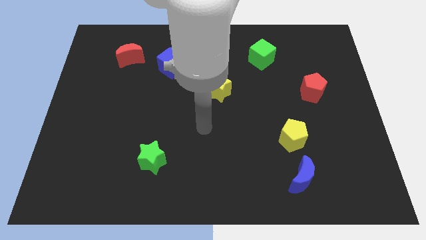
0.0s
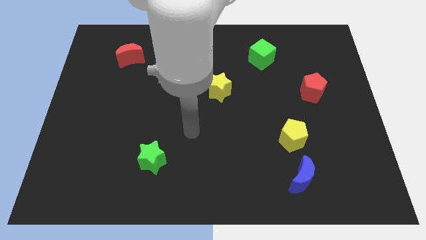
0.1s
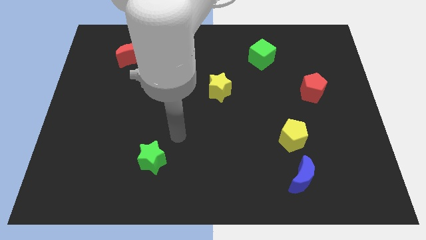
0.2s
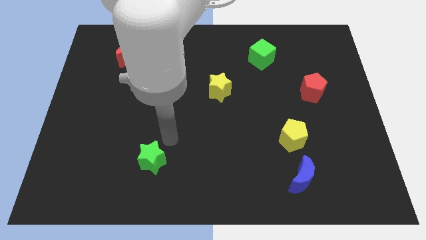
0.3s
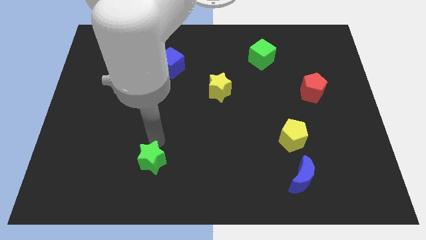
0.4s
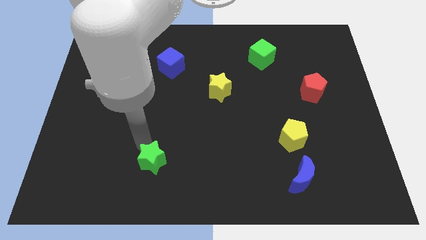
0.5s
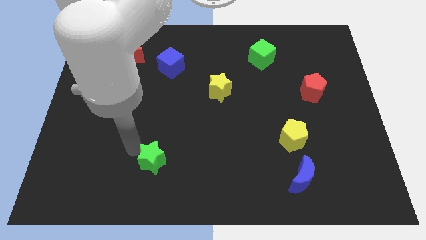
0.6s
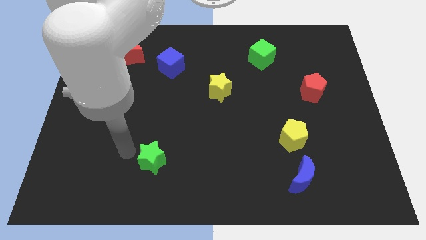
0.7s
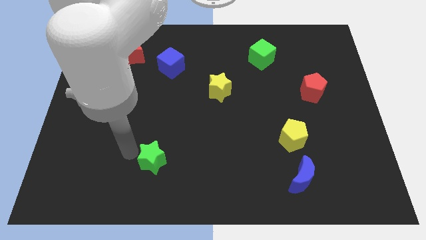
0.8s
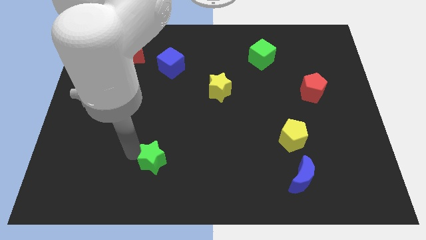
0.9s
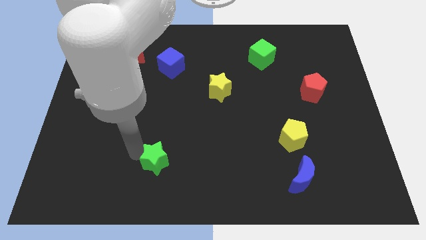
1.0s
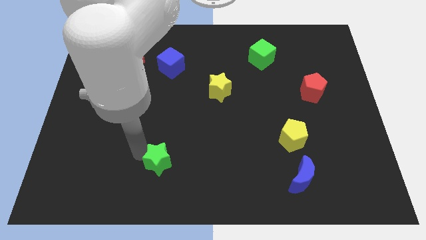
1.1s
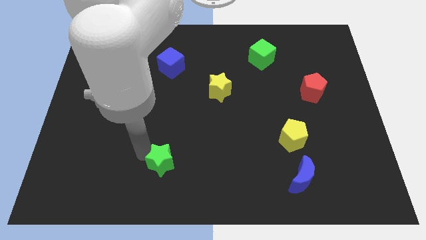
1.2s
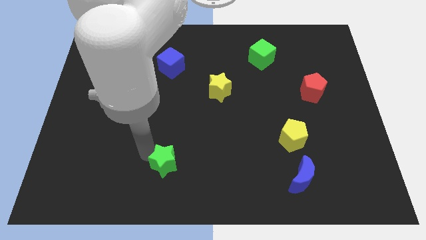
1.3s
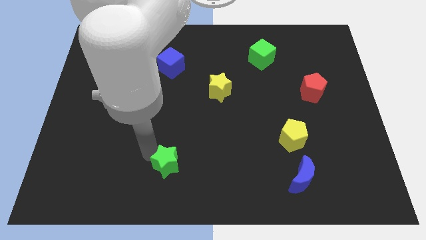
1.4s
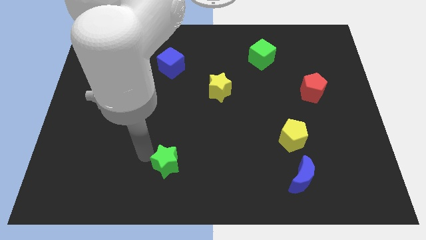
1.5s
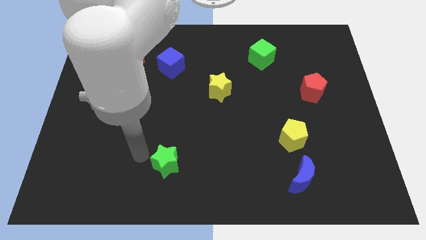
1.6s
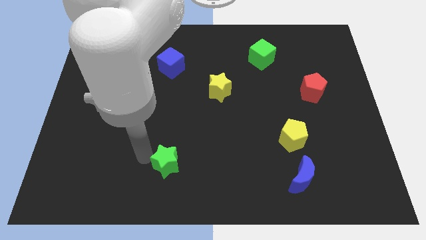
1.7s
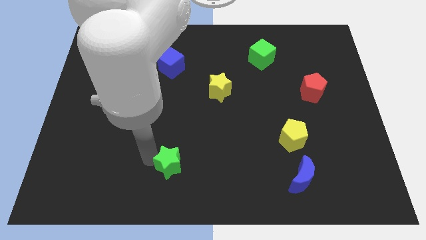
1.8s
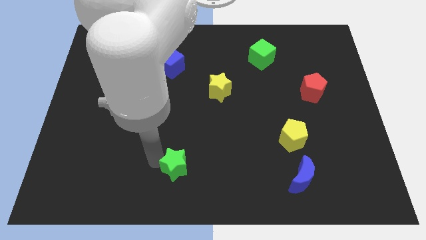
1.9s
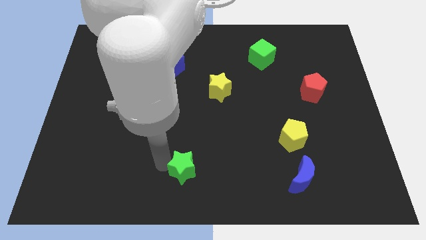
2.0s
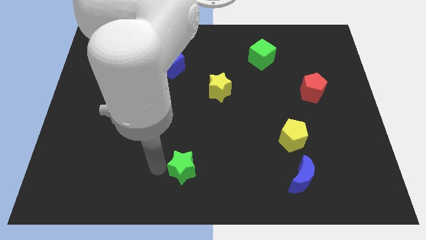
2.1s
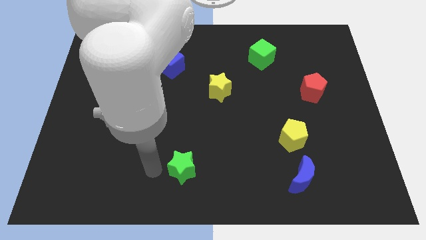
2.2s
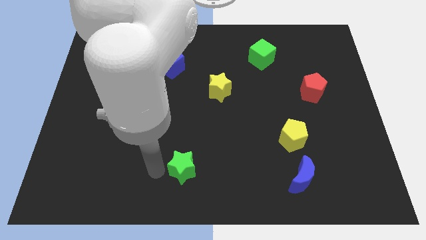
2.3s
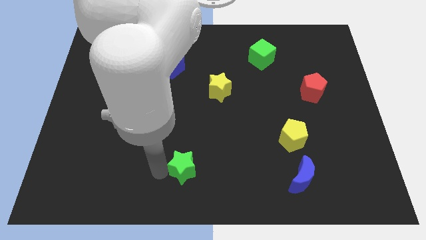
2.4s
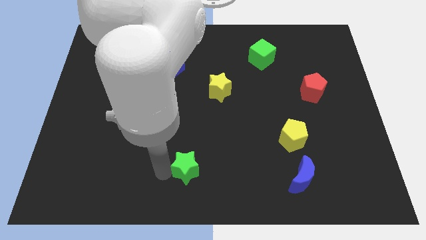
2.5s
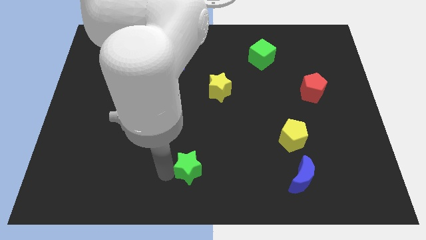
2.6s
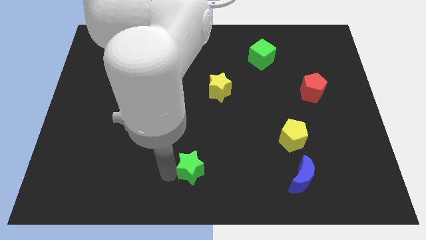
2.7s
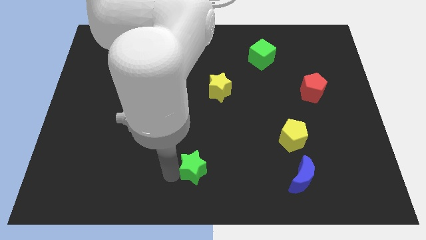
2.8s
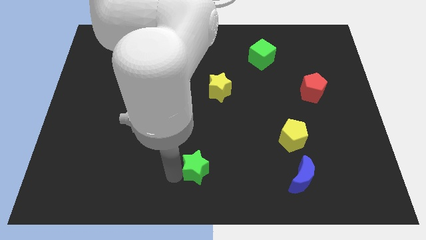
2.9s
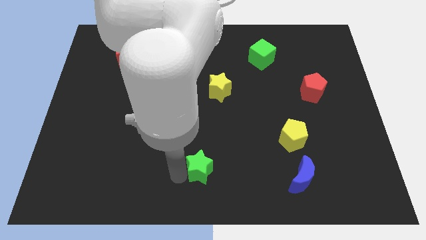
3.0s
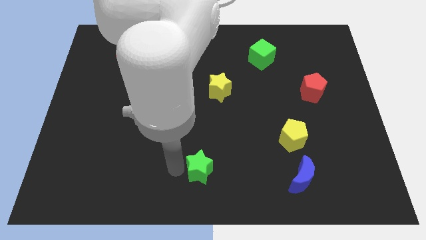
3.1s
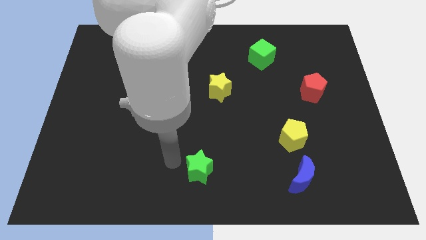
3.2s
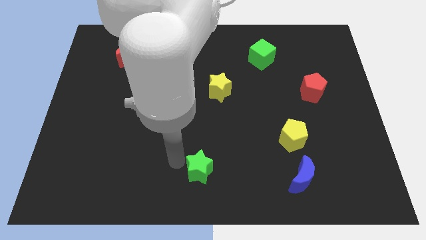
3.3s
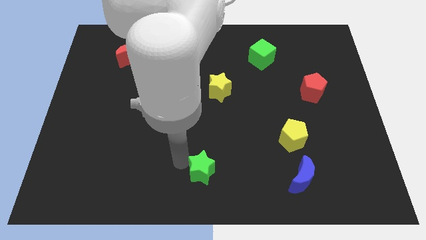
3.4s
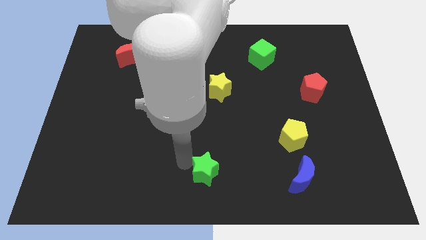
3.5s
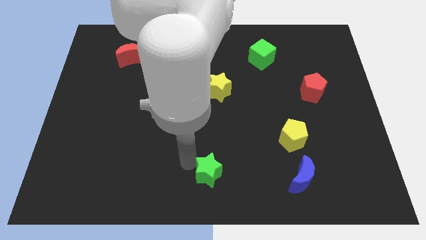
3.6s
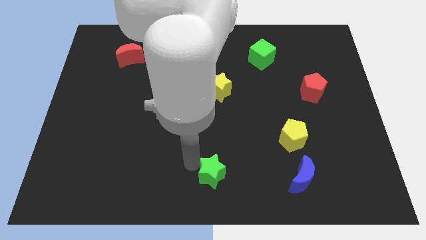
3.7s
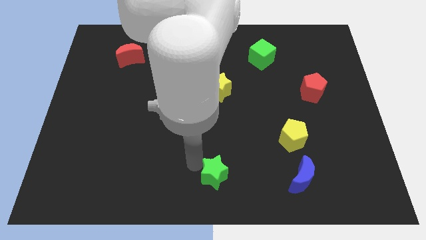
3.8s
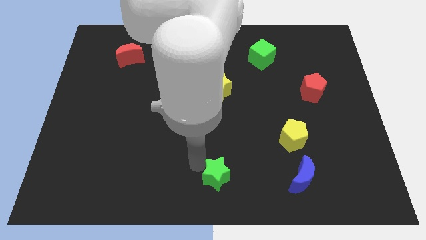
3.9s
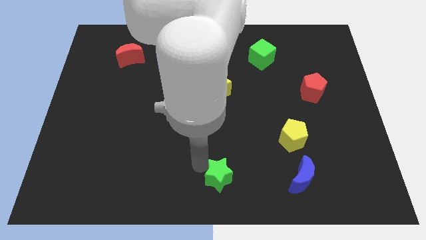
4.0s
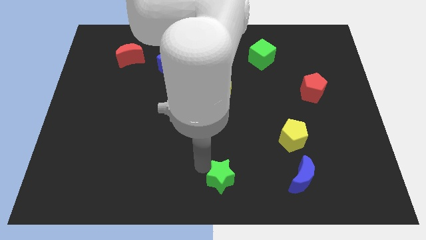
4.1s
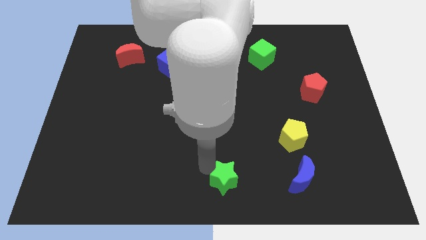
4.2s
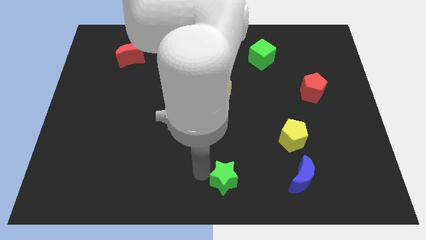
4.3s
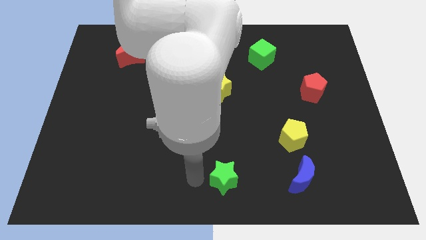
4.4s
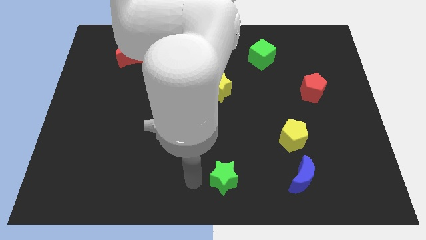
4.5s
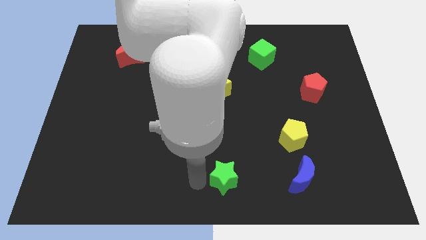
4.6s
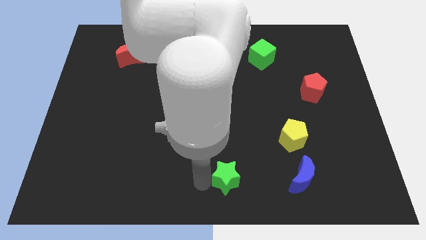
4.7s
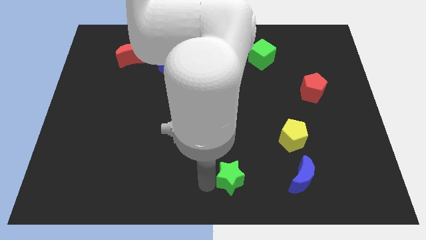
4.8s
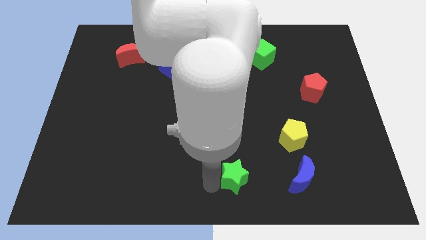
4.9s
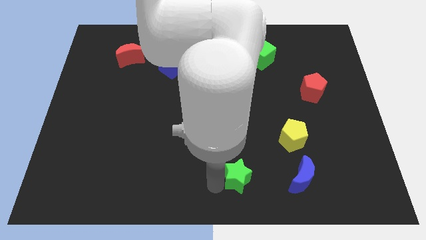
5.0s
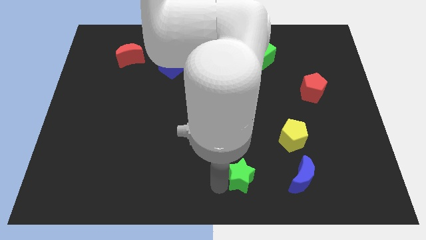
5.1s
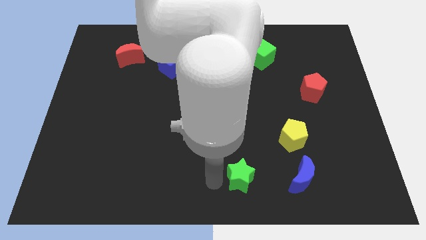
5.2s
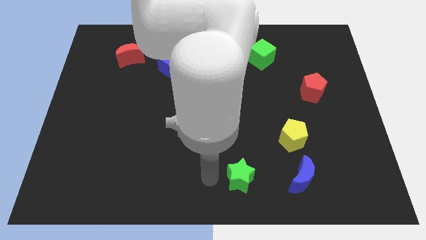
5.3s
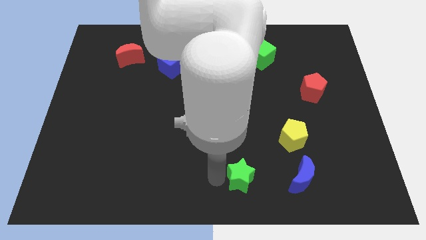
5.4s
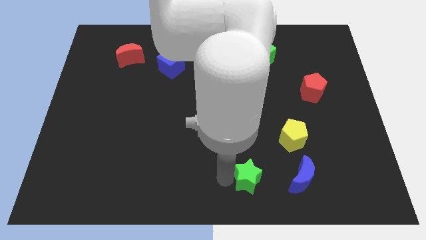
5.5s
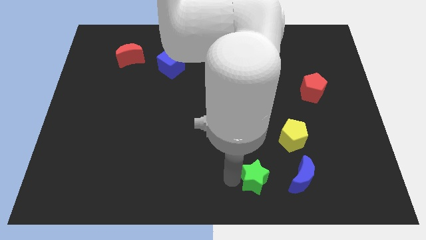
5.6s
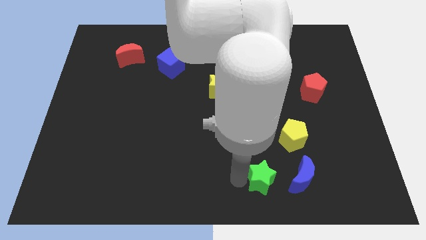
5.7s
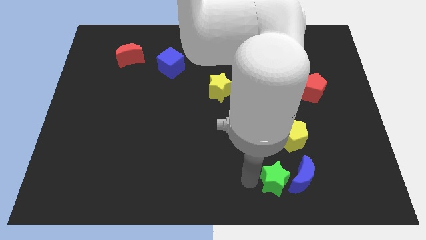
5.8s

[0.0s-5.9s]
move the green star next to the blue moon

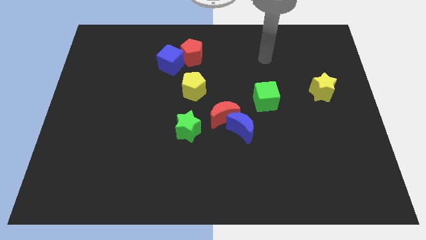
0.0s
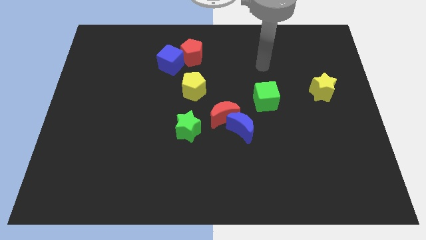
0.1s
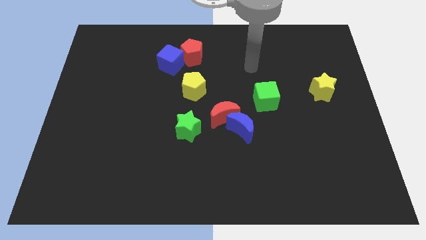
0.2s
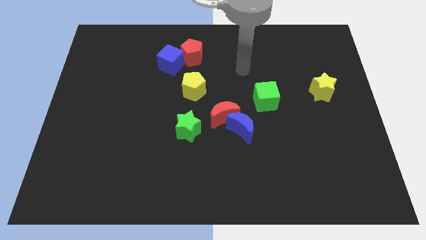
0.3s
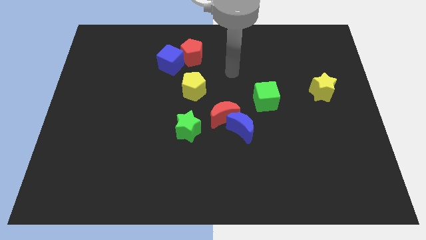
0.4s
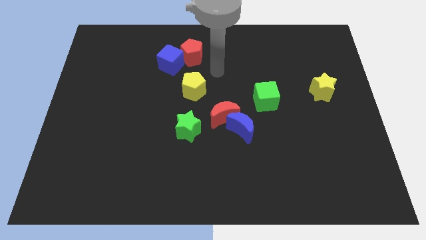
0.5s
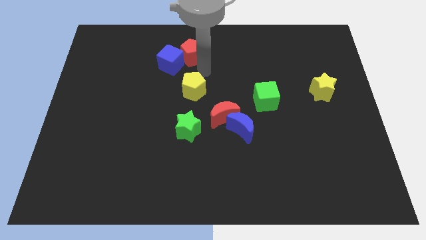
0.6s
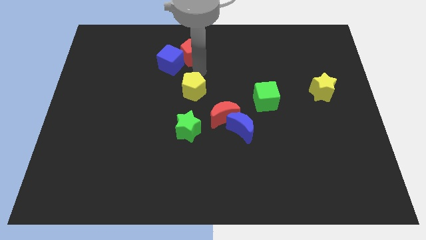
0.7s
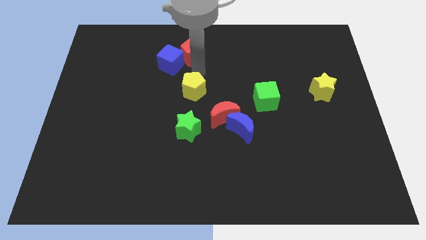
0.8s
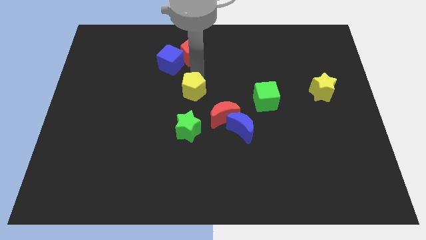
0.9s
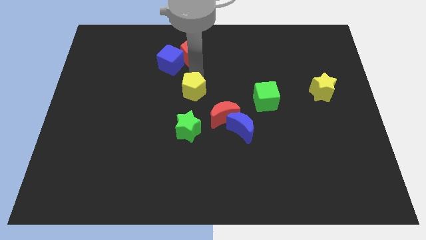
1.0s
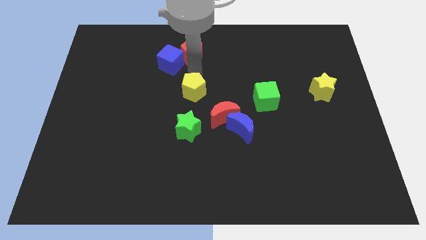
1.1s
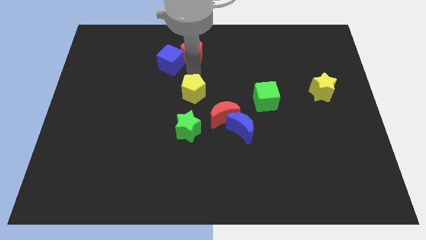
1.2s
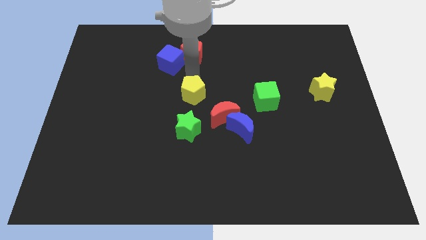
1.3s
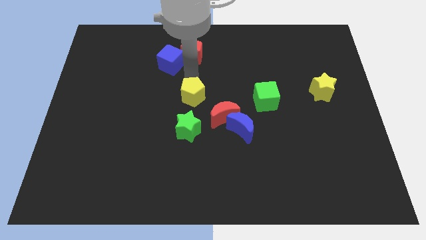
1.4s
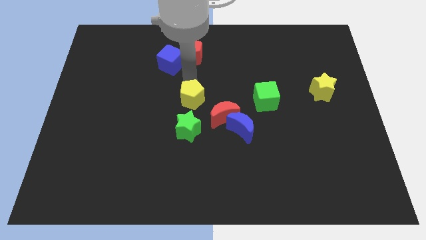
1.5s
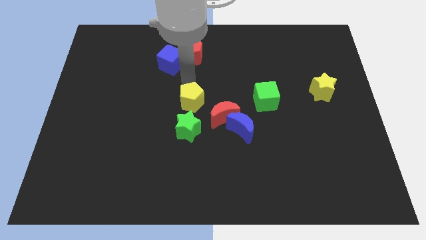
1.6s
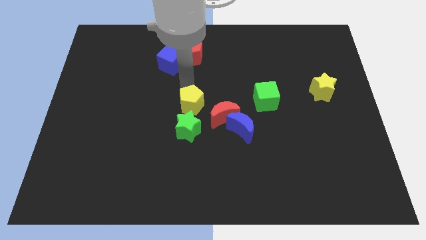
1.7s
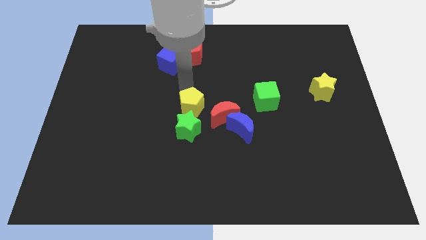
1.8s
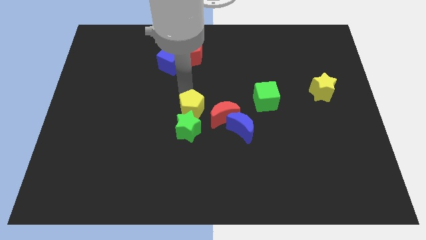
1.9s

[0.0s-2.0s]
put the yellow pentagon next to the green star
